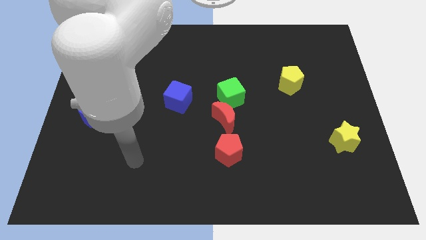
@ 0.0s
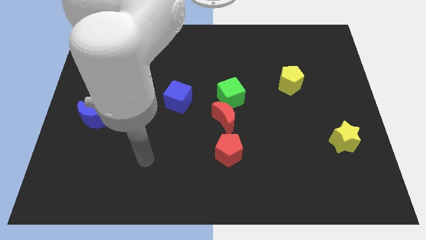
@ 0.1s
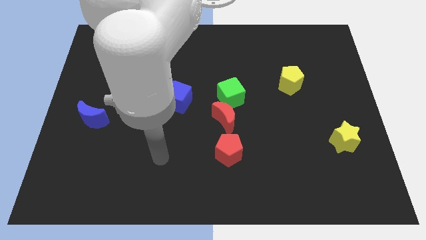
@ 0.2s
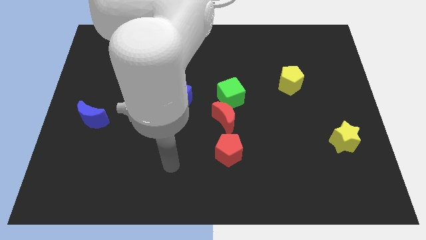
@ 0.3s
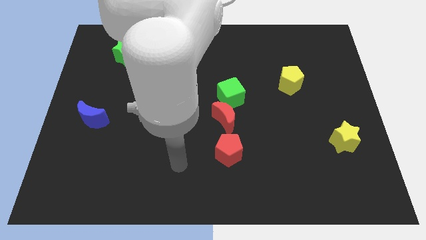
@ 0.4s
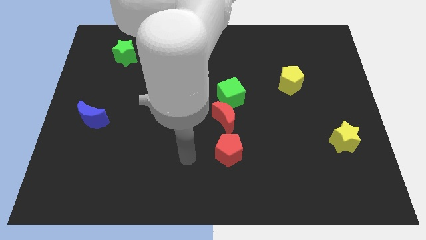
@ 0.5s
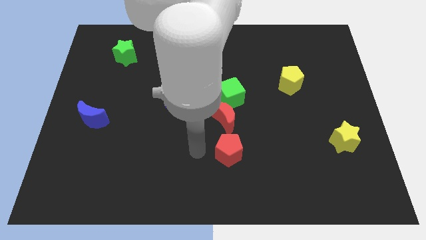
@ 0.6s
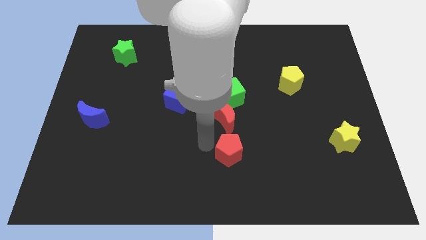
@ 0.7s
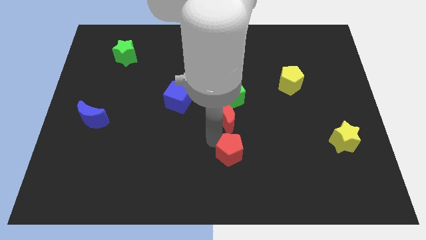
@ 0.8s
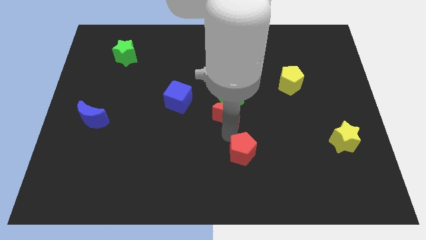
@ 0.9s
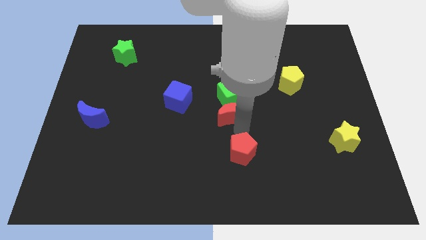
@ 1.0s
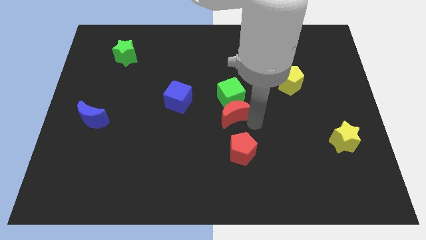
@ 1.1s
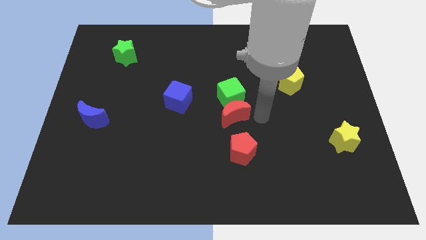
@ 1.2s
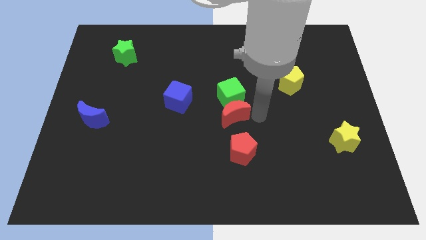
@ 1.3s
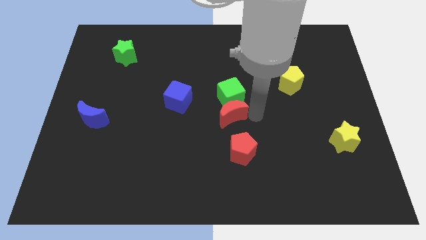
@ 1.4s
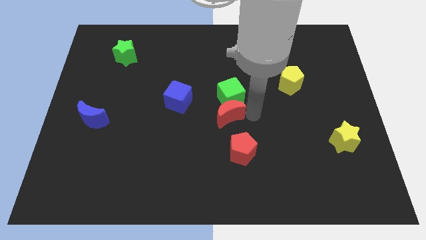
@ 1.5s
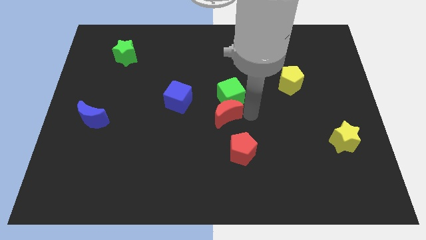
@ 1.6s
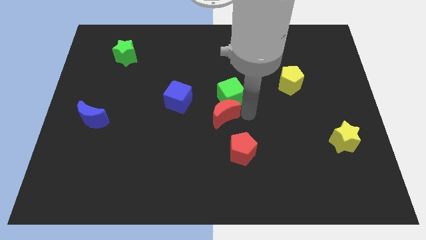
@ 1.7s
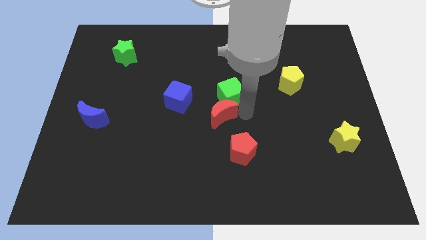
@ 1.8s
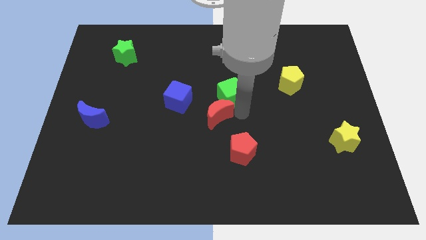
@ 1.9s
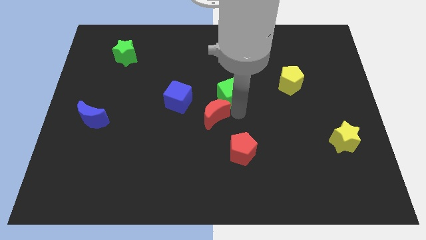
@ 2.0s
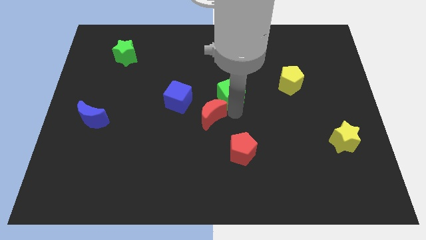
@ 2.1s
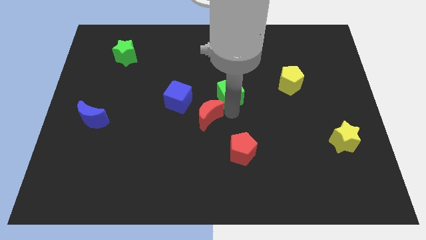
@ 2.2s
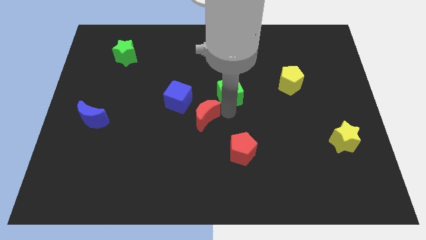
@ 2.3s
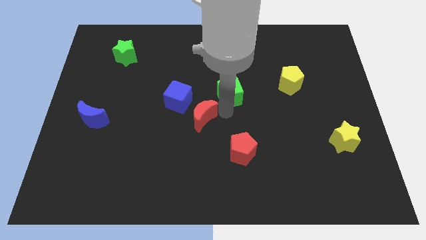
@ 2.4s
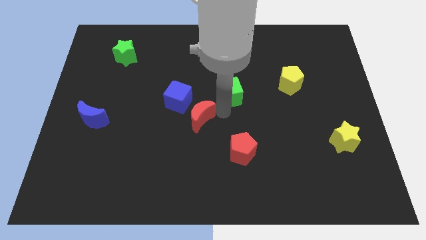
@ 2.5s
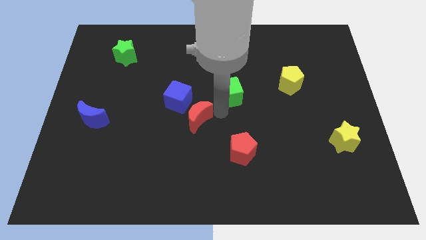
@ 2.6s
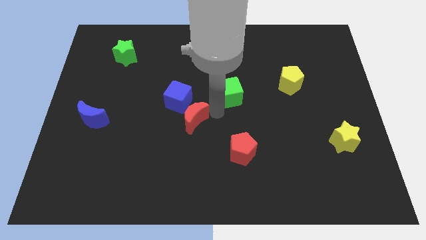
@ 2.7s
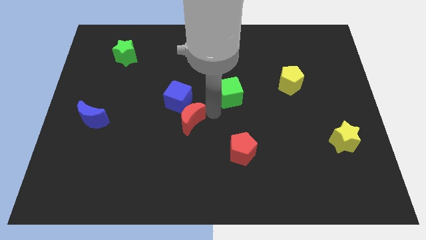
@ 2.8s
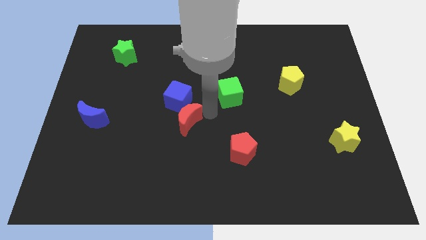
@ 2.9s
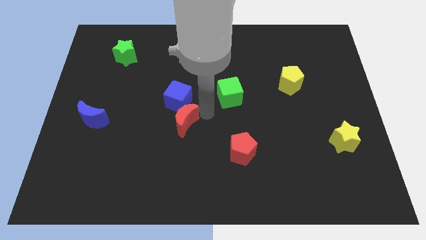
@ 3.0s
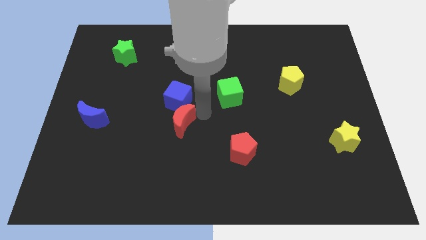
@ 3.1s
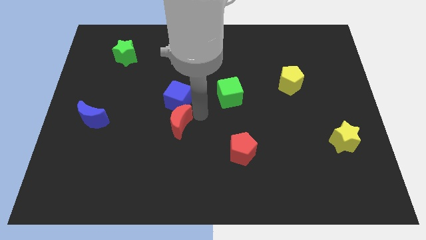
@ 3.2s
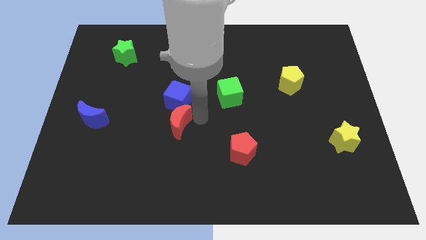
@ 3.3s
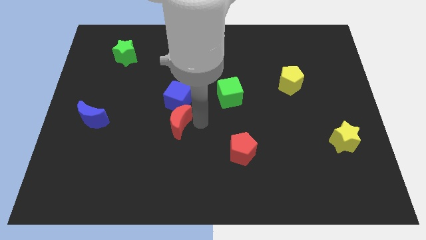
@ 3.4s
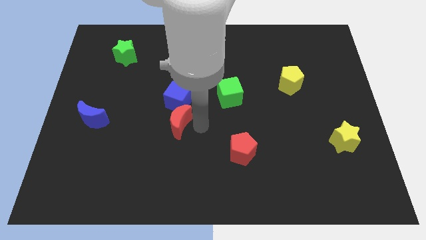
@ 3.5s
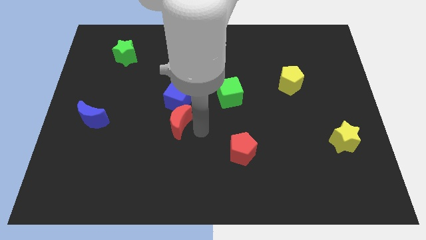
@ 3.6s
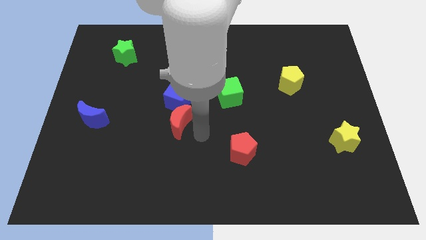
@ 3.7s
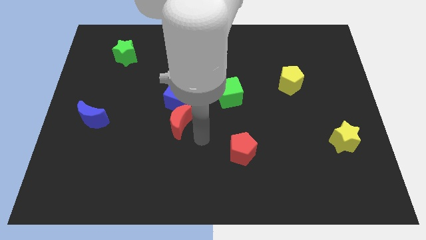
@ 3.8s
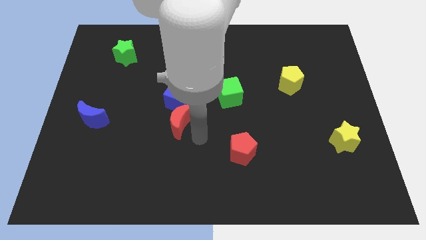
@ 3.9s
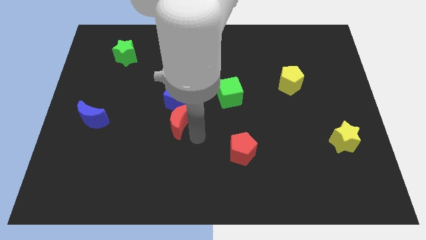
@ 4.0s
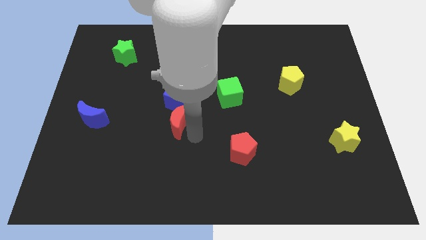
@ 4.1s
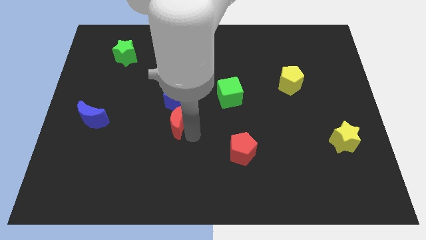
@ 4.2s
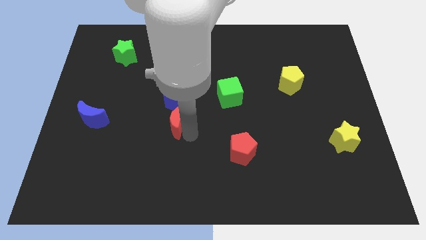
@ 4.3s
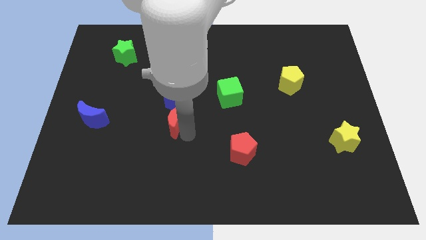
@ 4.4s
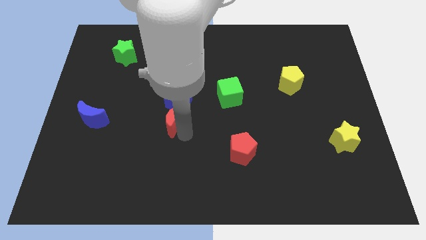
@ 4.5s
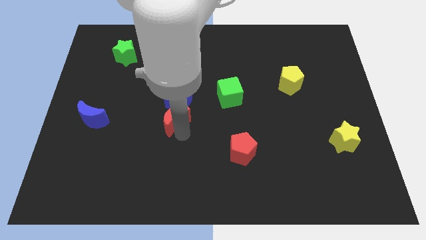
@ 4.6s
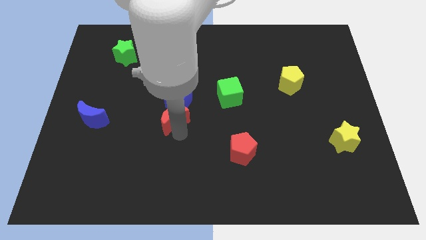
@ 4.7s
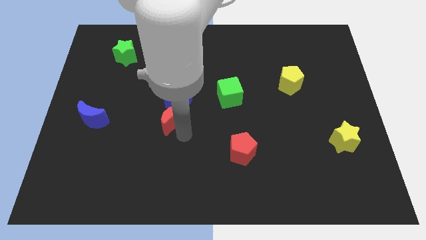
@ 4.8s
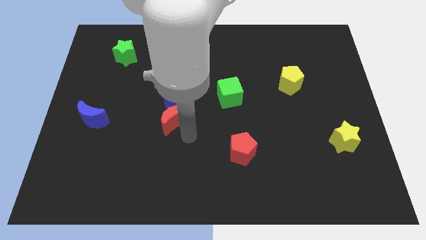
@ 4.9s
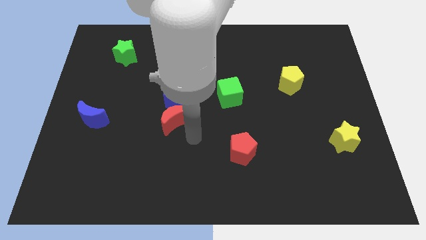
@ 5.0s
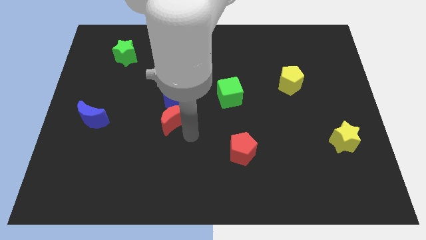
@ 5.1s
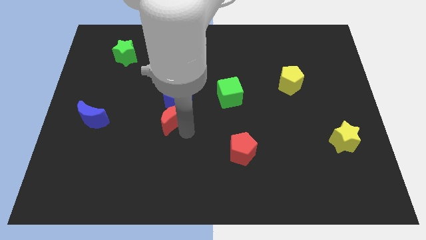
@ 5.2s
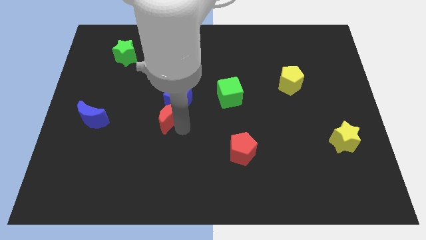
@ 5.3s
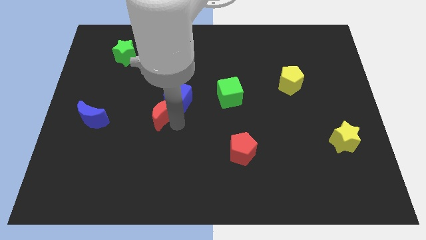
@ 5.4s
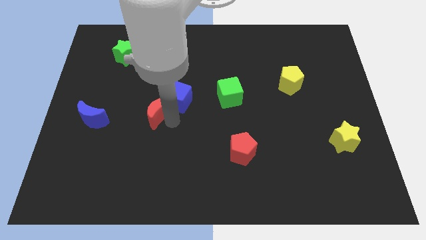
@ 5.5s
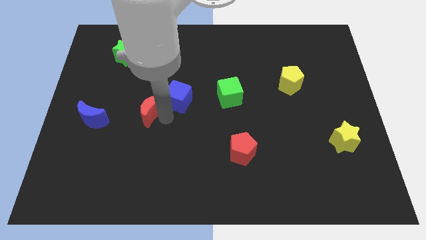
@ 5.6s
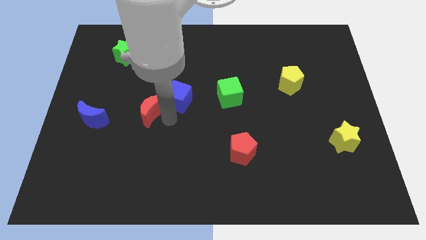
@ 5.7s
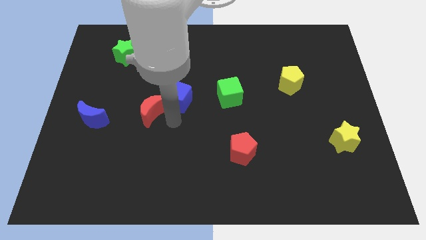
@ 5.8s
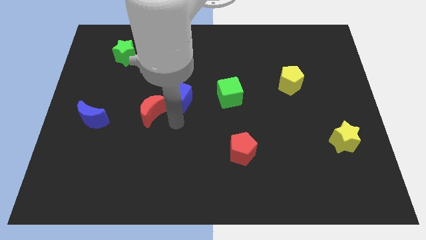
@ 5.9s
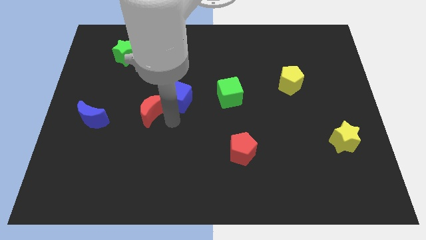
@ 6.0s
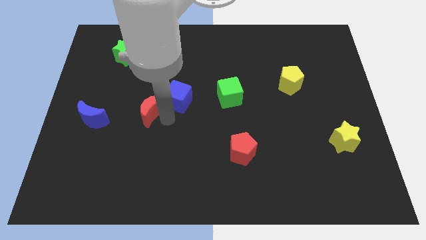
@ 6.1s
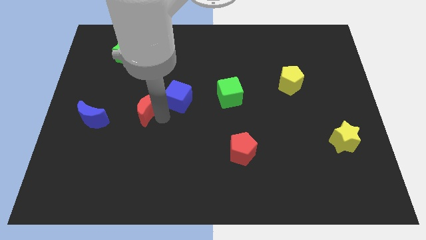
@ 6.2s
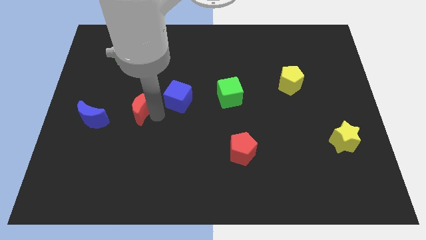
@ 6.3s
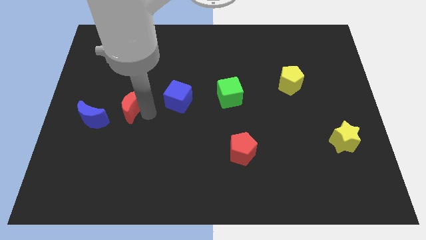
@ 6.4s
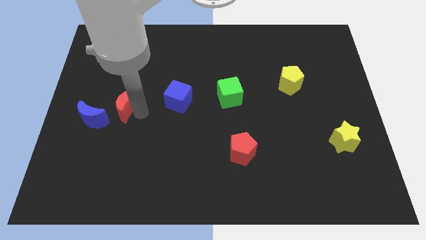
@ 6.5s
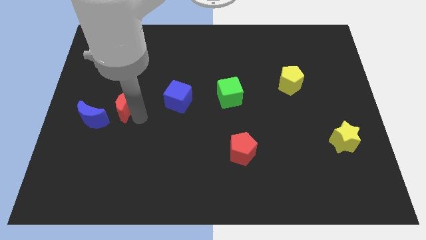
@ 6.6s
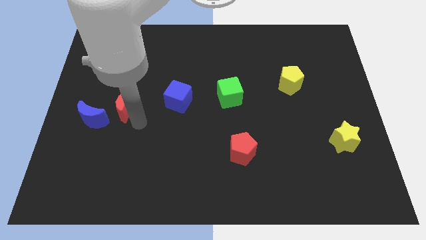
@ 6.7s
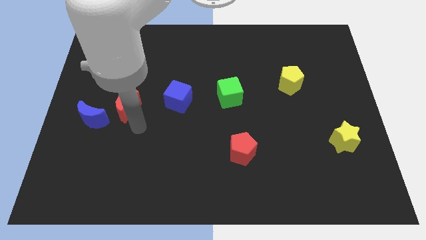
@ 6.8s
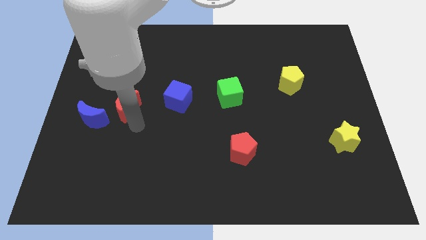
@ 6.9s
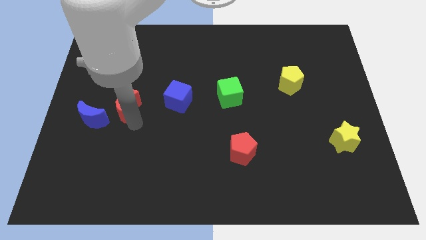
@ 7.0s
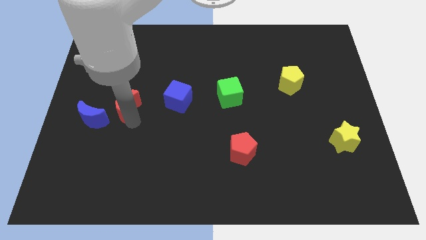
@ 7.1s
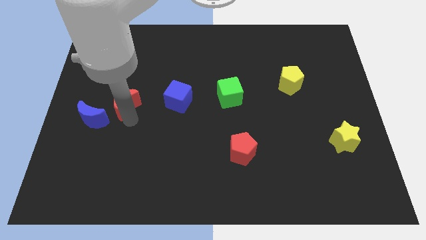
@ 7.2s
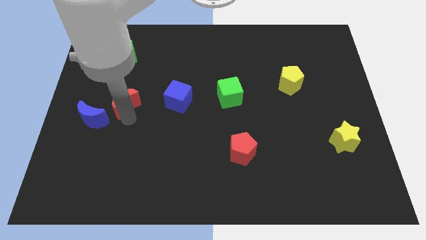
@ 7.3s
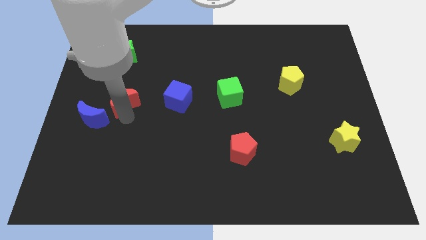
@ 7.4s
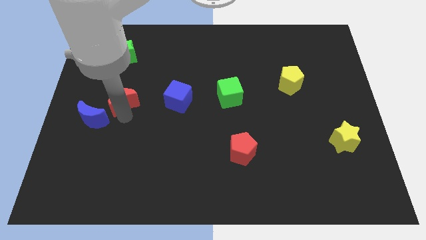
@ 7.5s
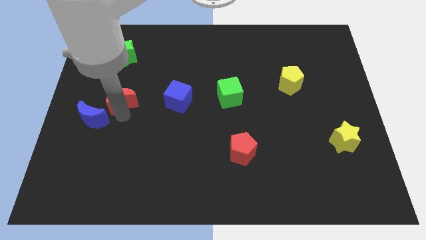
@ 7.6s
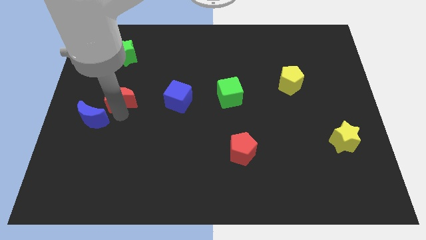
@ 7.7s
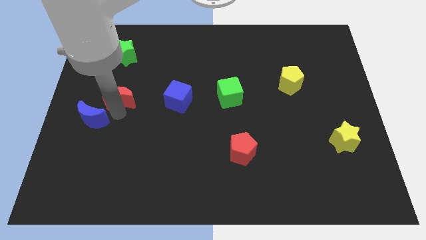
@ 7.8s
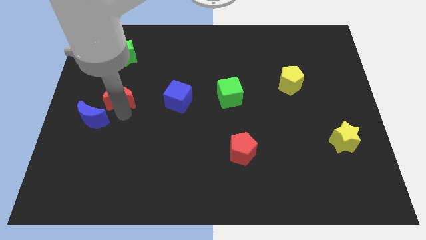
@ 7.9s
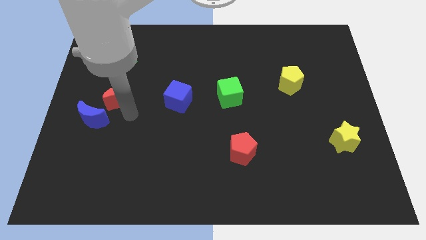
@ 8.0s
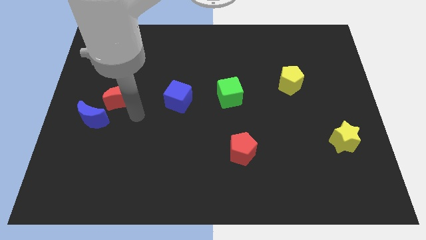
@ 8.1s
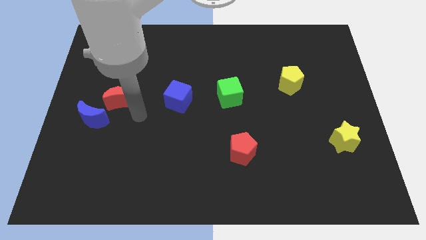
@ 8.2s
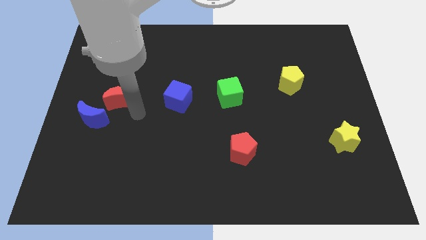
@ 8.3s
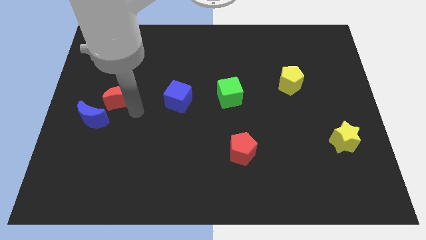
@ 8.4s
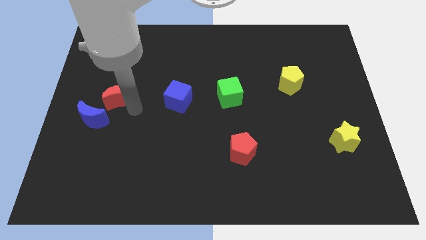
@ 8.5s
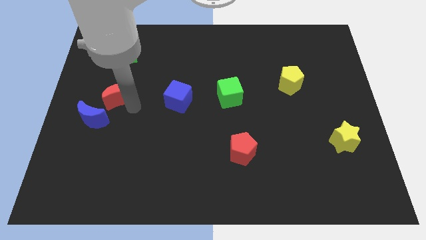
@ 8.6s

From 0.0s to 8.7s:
put the red moon above the blue moon
